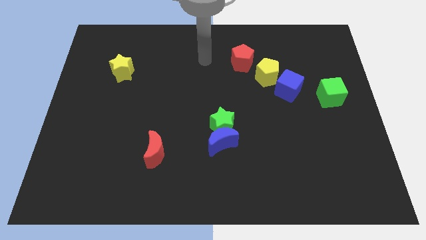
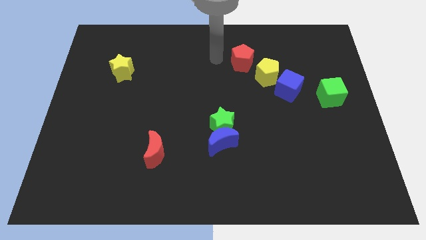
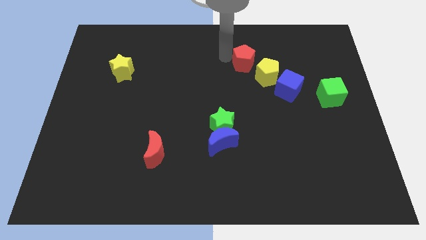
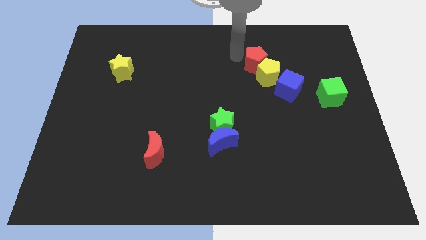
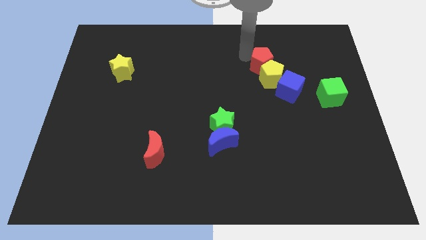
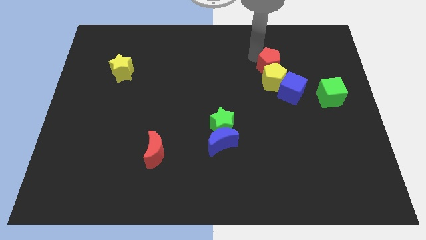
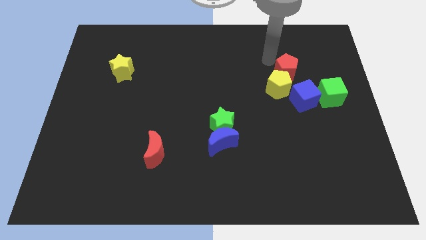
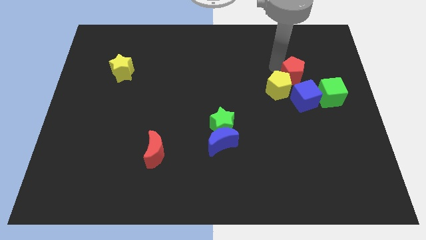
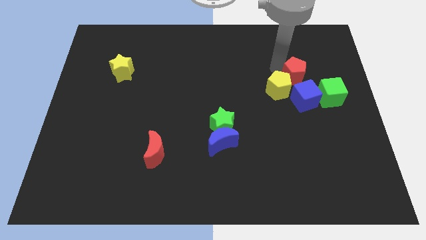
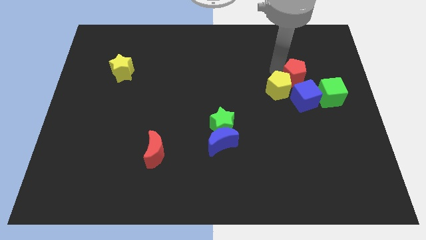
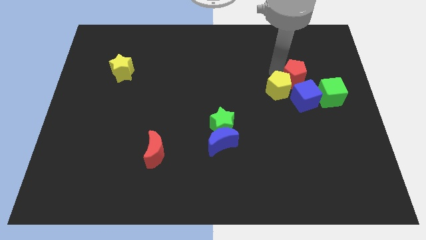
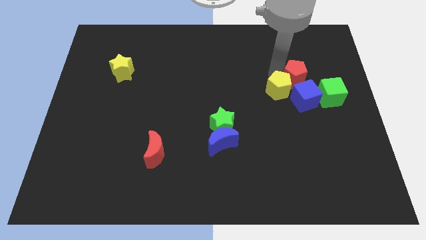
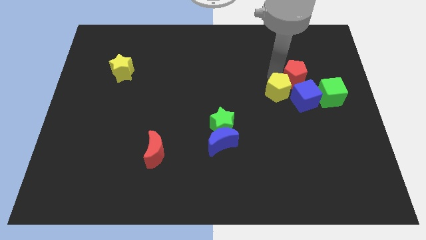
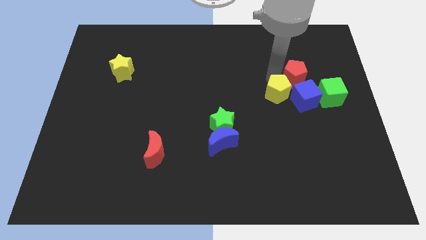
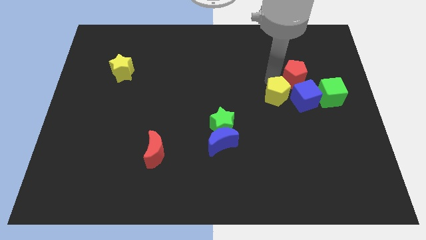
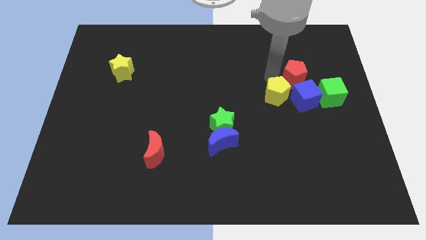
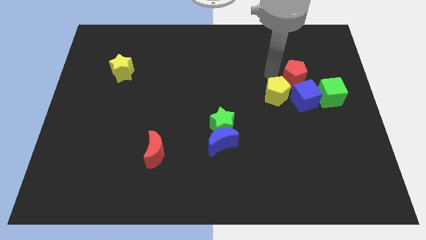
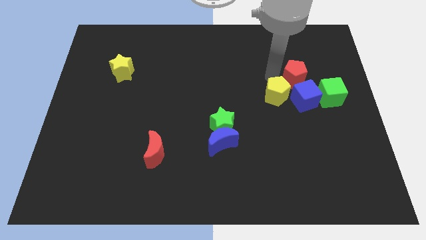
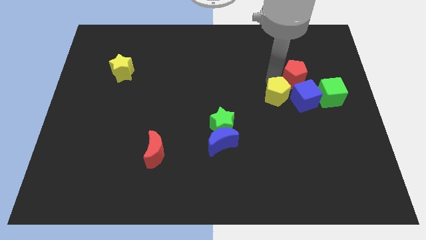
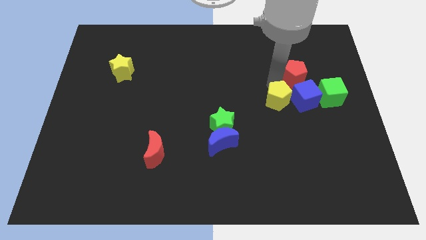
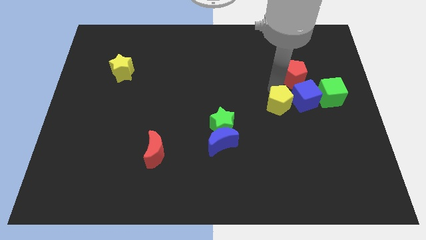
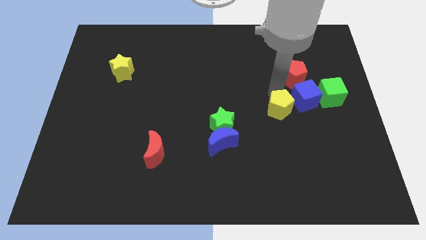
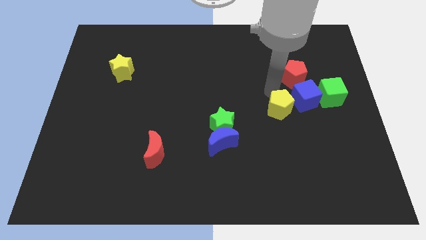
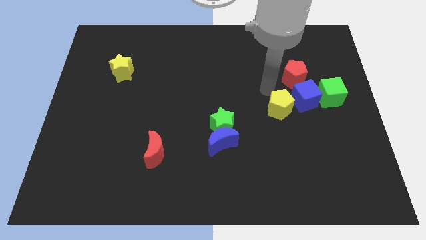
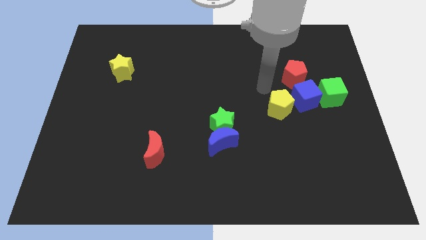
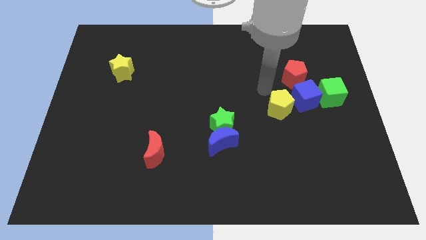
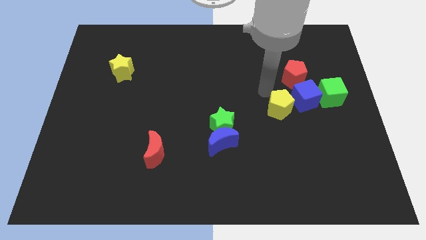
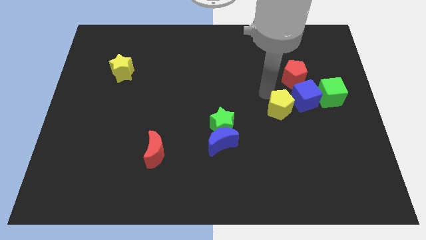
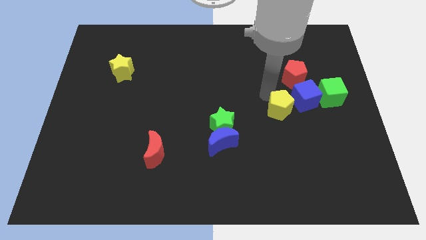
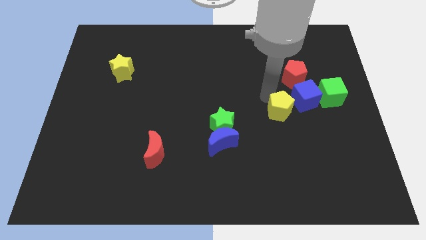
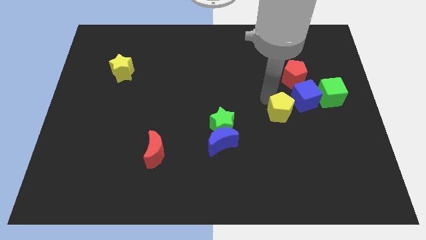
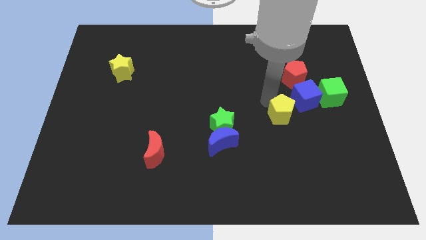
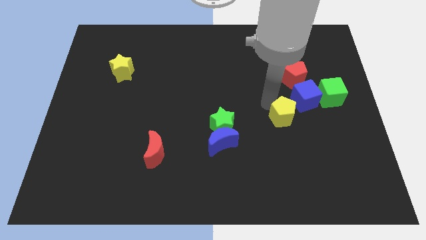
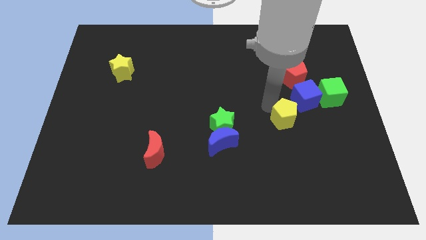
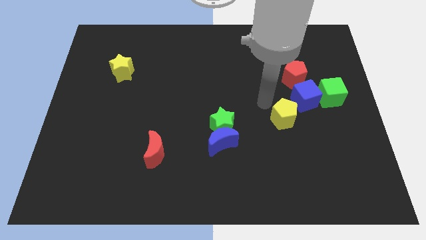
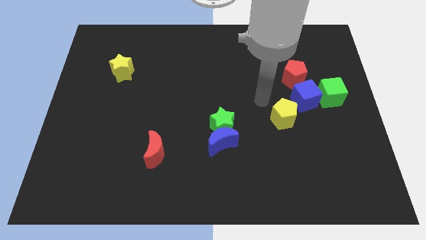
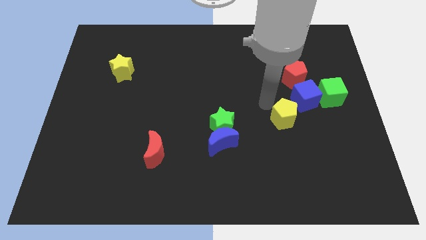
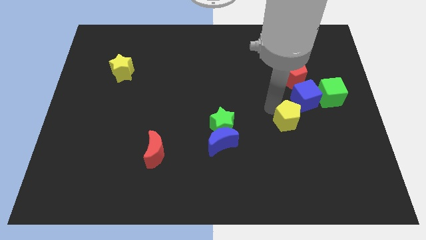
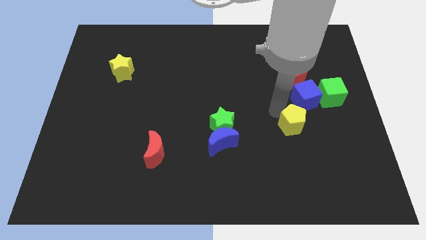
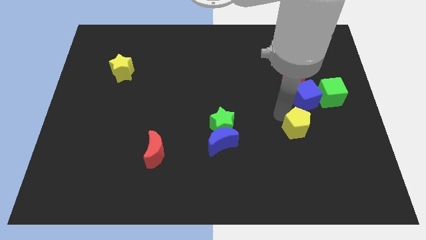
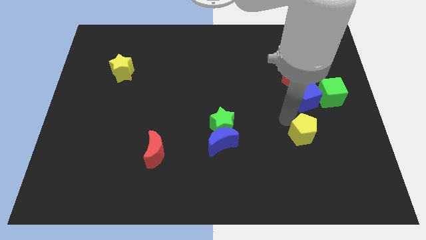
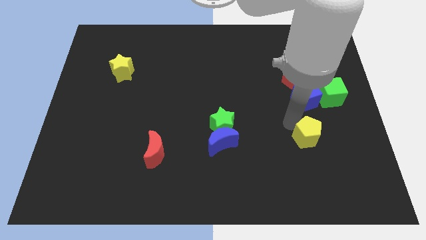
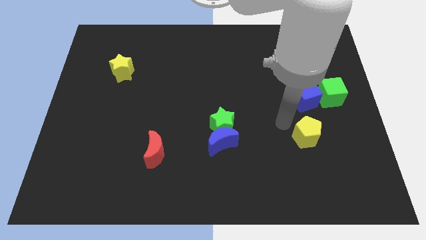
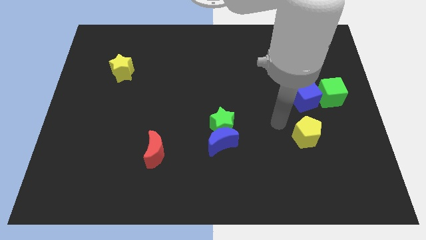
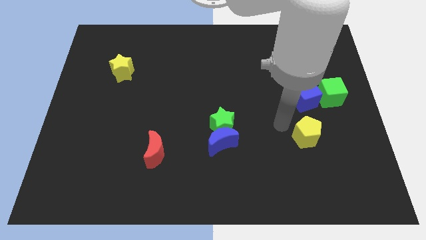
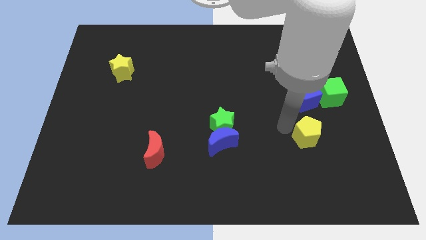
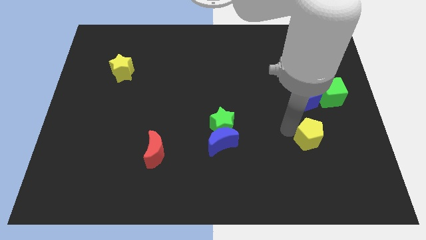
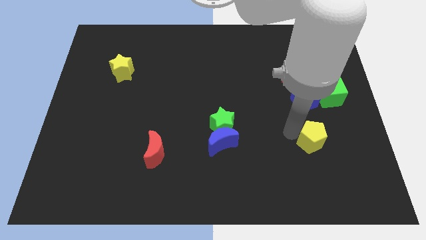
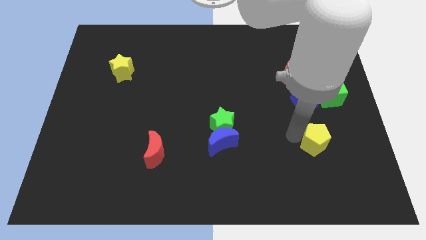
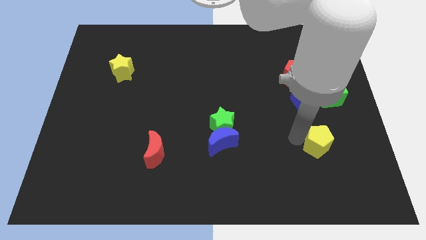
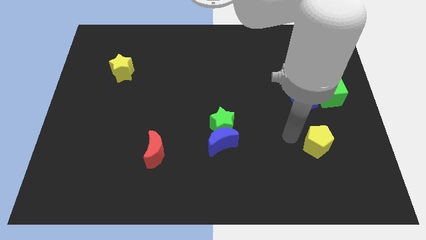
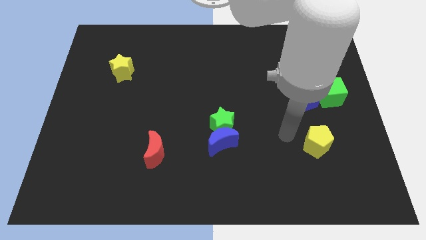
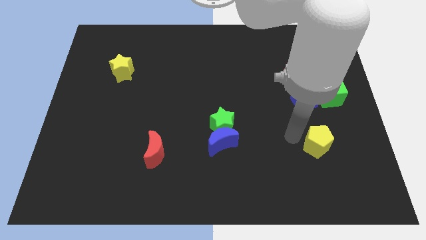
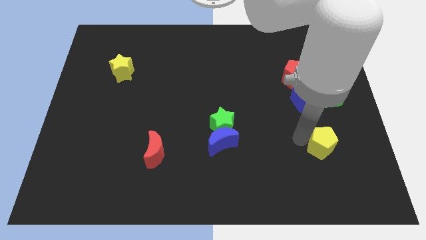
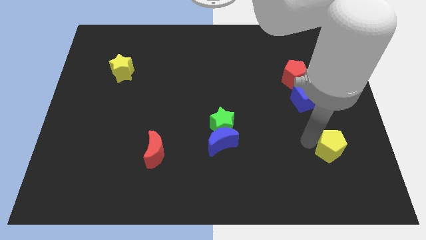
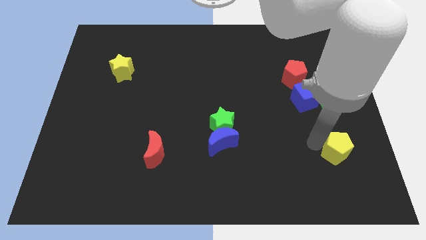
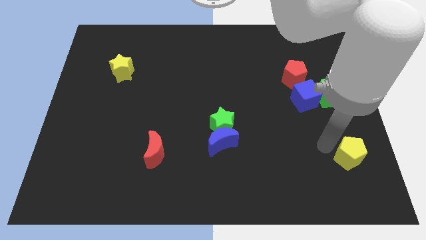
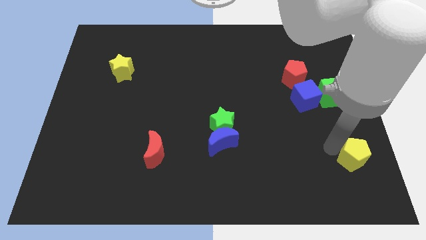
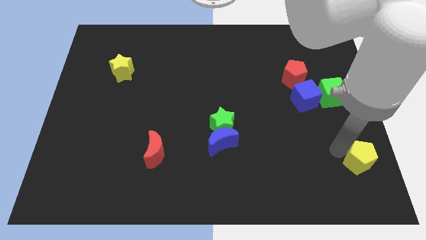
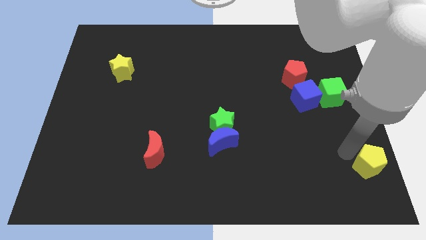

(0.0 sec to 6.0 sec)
slide the yellow pentagon to the bottom right of the board
